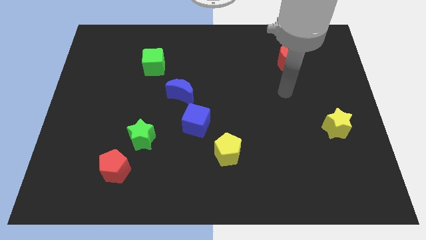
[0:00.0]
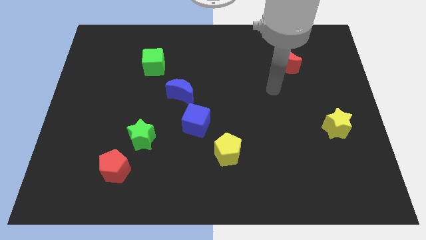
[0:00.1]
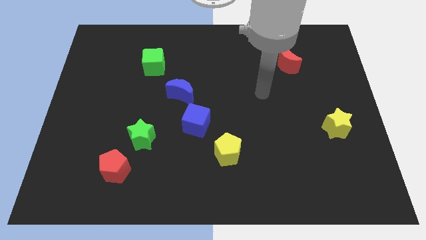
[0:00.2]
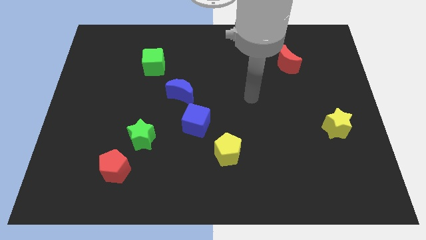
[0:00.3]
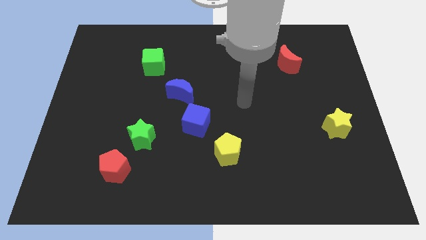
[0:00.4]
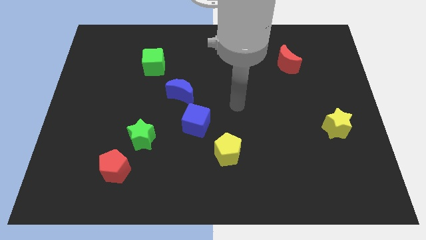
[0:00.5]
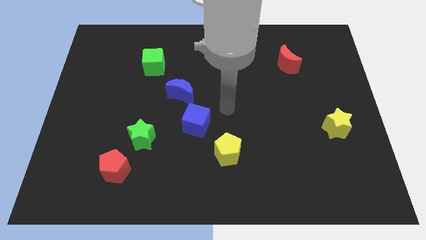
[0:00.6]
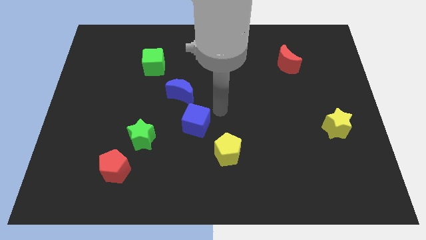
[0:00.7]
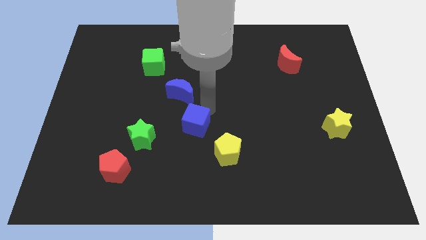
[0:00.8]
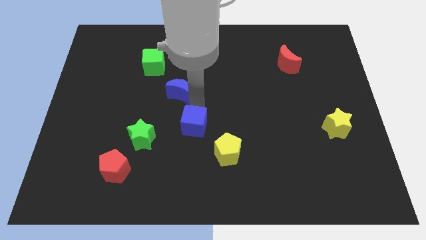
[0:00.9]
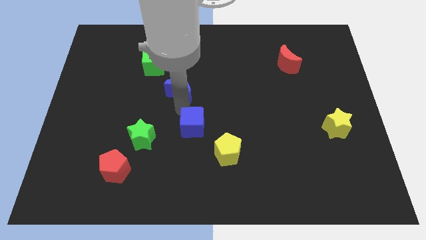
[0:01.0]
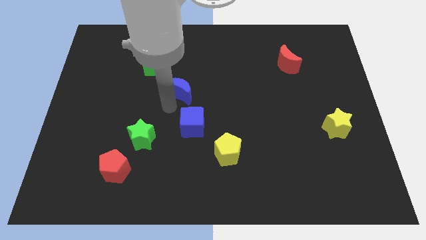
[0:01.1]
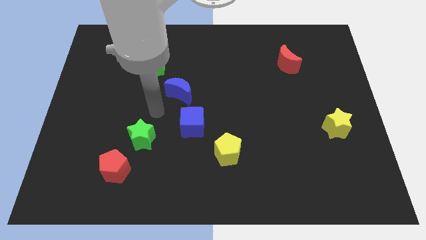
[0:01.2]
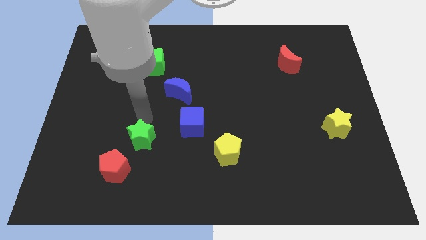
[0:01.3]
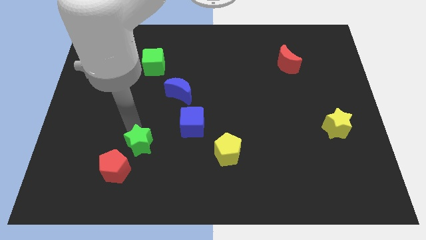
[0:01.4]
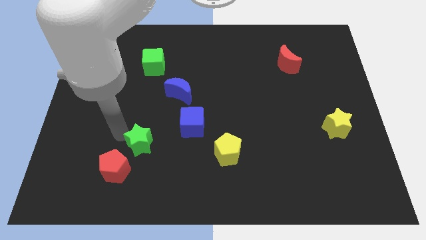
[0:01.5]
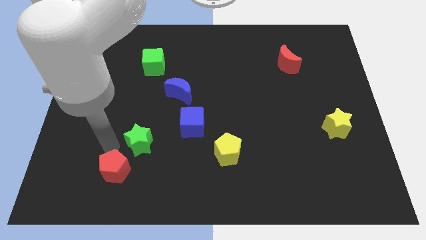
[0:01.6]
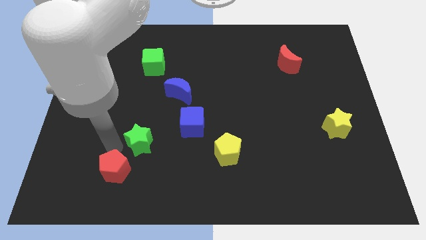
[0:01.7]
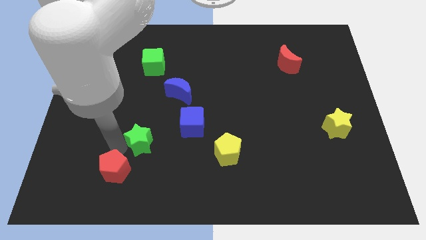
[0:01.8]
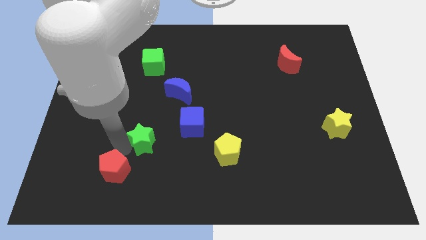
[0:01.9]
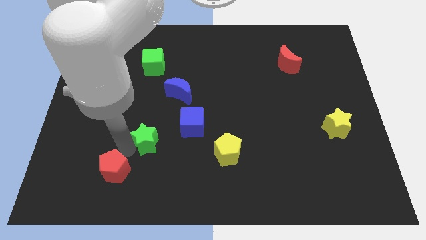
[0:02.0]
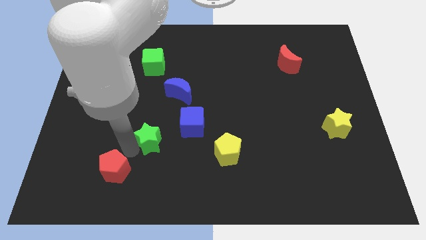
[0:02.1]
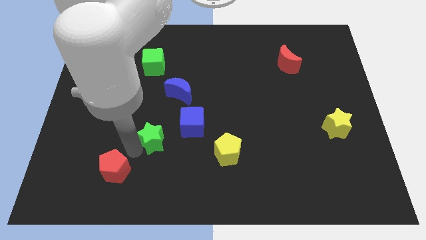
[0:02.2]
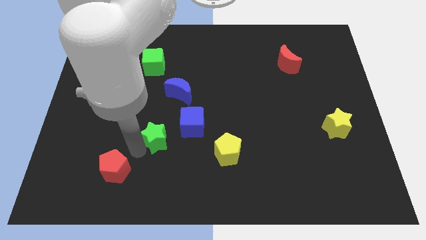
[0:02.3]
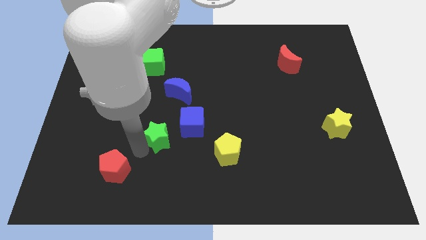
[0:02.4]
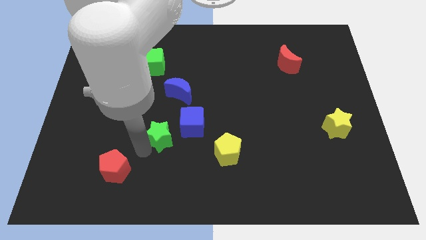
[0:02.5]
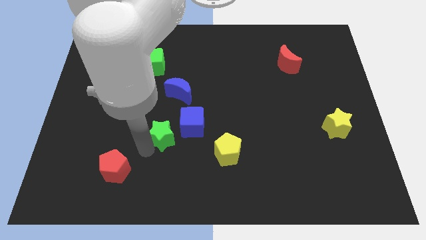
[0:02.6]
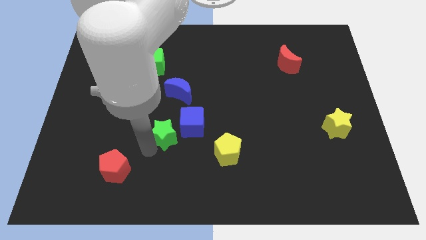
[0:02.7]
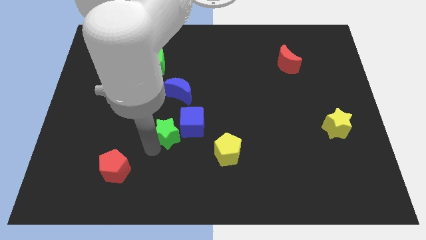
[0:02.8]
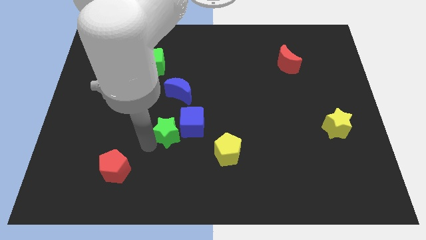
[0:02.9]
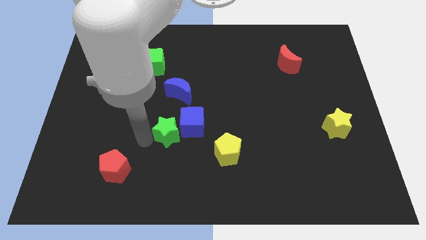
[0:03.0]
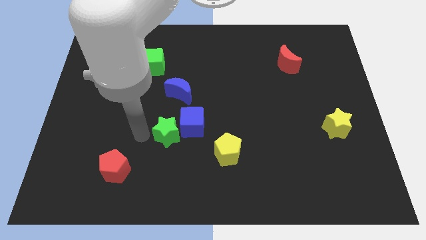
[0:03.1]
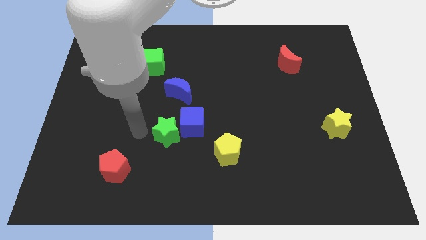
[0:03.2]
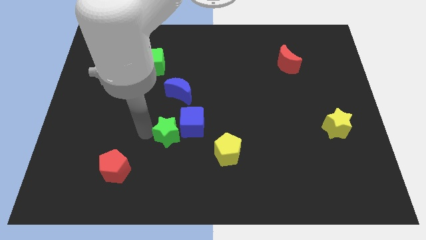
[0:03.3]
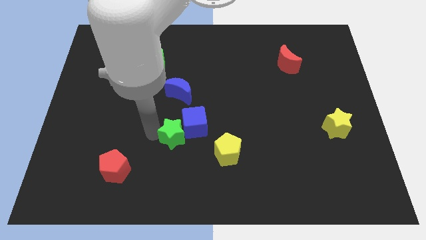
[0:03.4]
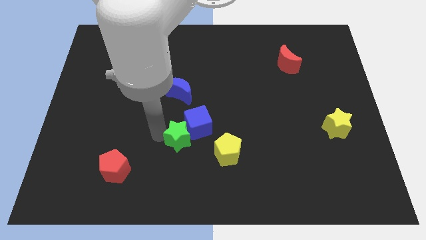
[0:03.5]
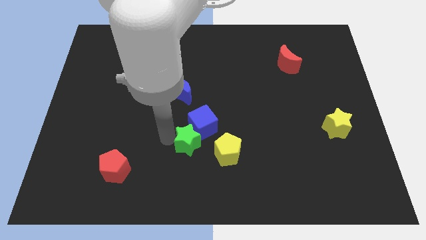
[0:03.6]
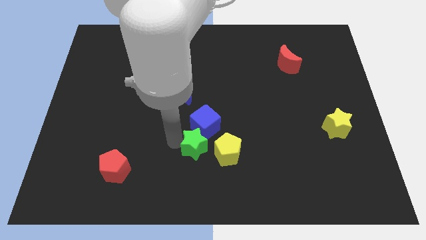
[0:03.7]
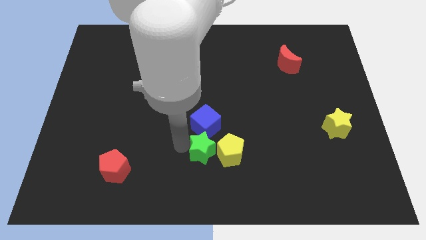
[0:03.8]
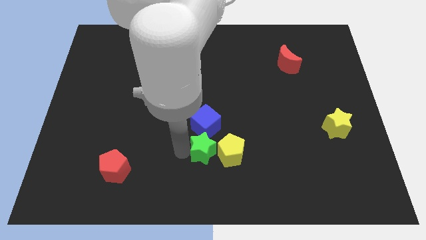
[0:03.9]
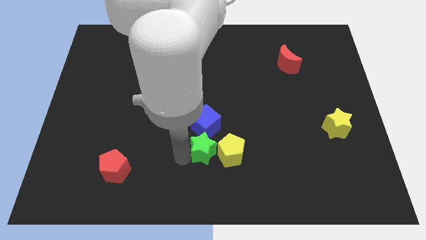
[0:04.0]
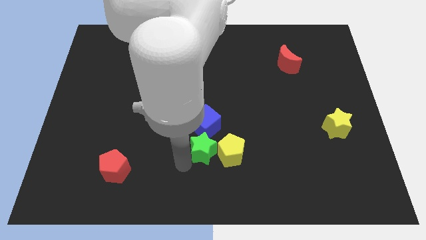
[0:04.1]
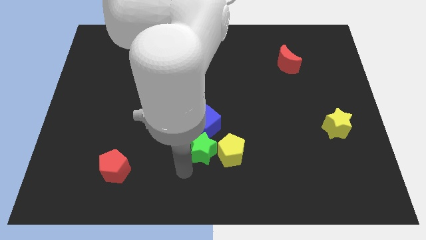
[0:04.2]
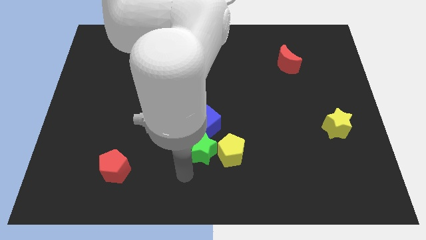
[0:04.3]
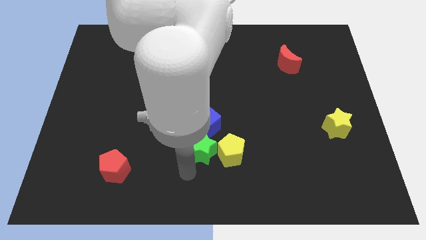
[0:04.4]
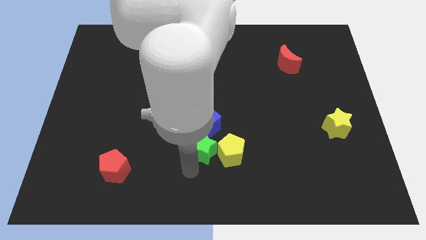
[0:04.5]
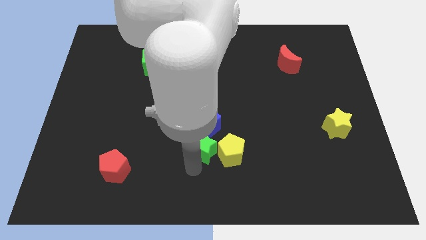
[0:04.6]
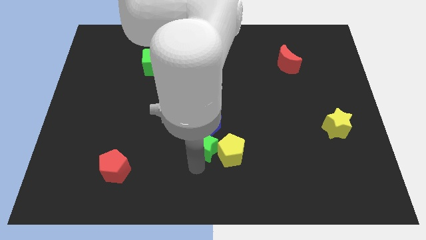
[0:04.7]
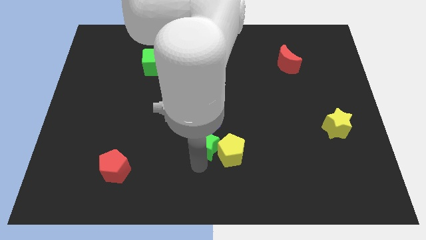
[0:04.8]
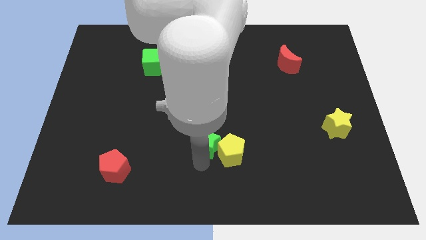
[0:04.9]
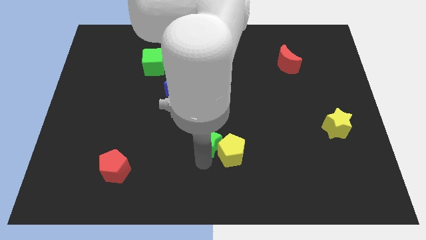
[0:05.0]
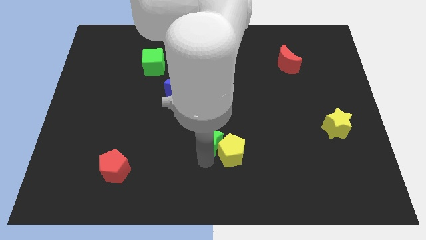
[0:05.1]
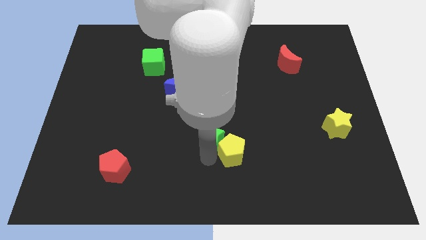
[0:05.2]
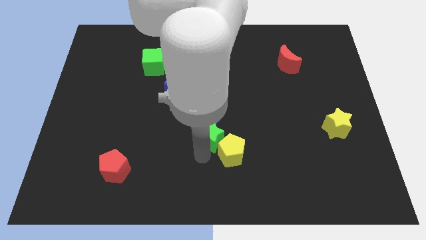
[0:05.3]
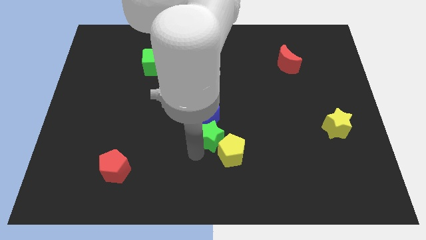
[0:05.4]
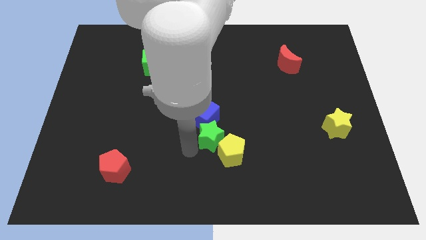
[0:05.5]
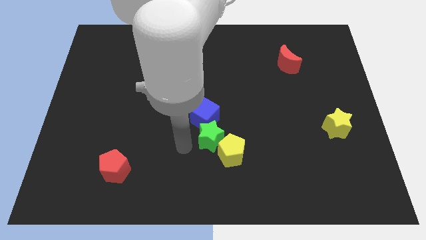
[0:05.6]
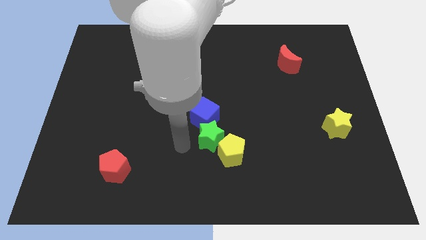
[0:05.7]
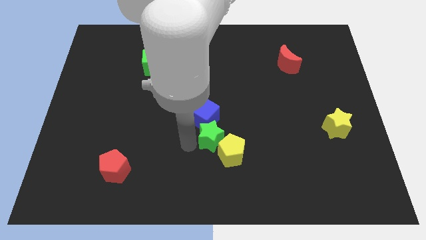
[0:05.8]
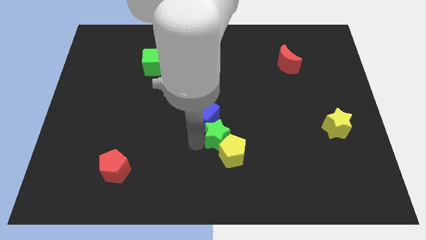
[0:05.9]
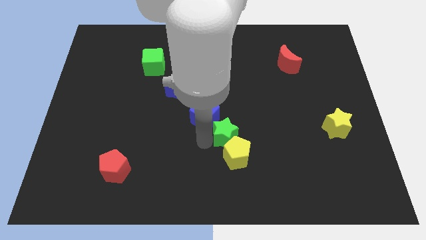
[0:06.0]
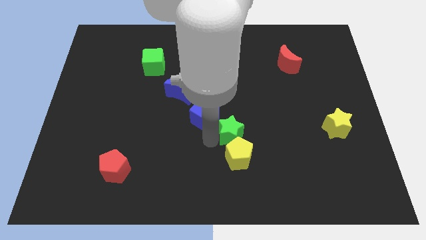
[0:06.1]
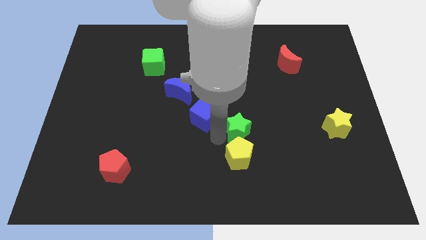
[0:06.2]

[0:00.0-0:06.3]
slide the green star right

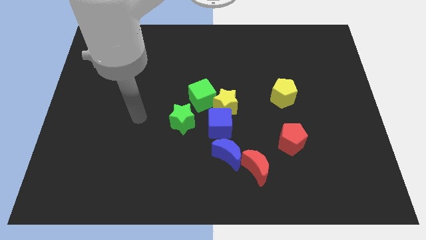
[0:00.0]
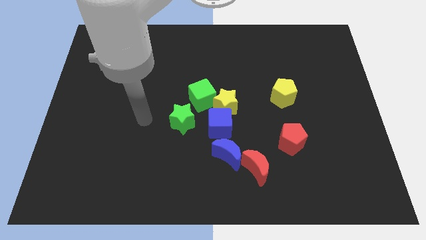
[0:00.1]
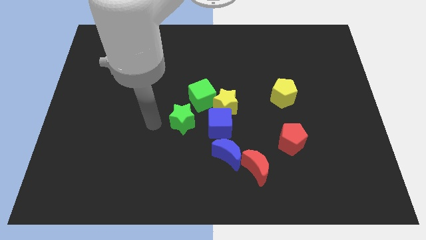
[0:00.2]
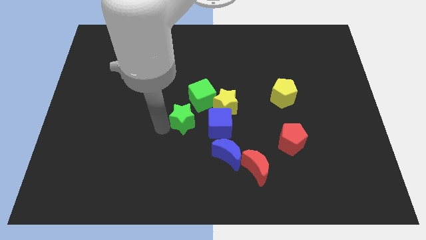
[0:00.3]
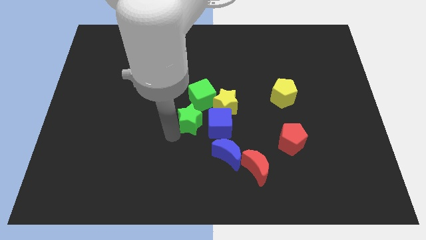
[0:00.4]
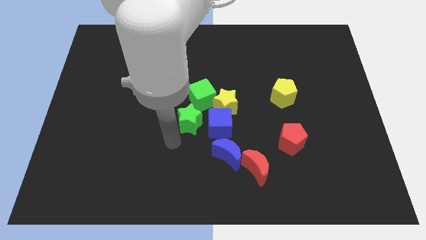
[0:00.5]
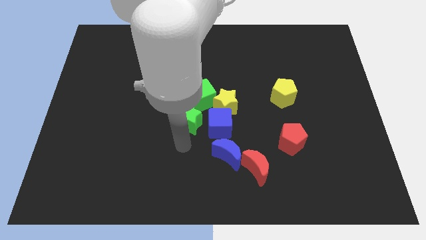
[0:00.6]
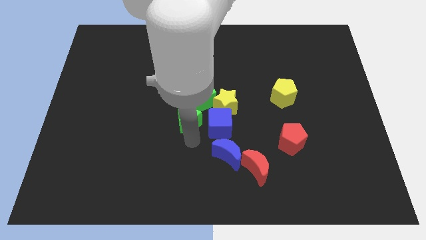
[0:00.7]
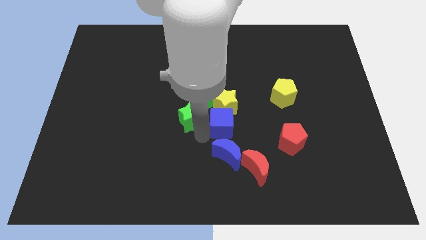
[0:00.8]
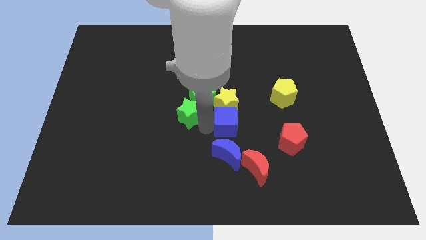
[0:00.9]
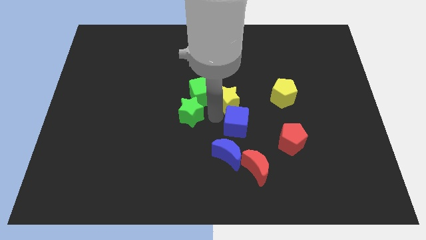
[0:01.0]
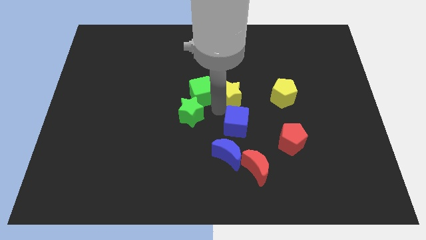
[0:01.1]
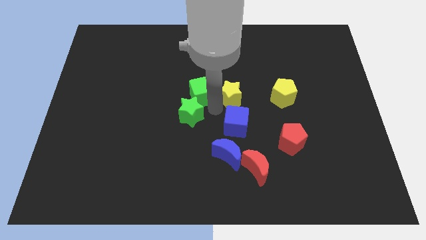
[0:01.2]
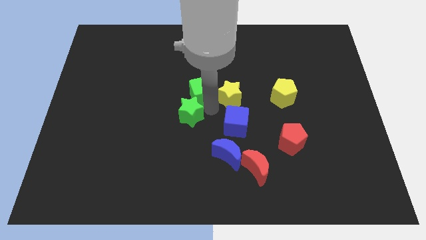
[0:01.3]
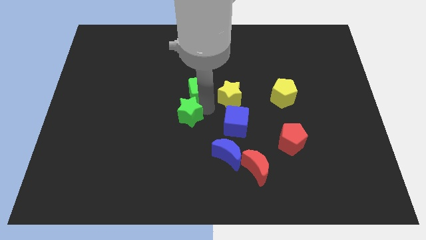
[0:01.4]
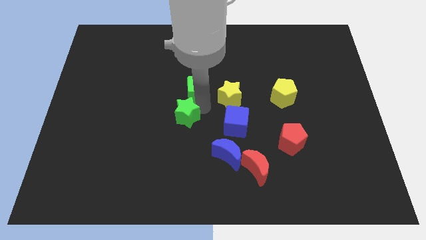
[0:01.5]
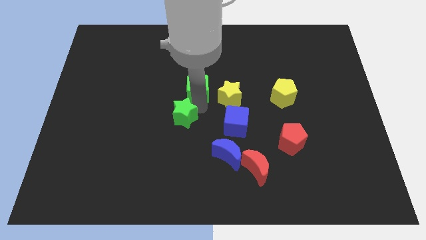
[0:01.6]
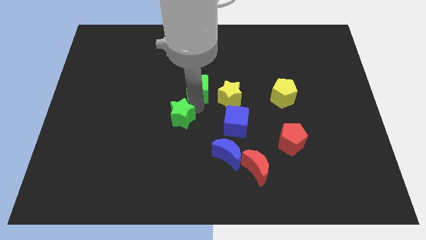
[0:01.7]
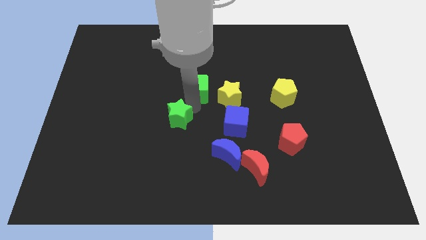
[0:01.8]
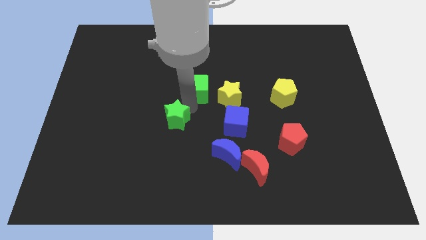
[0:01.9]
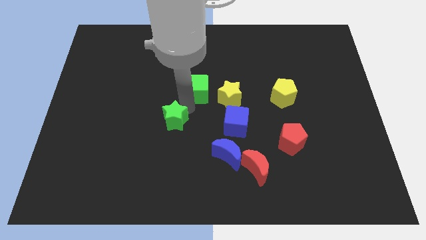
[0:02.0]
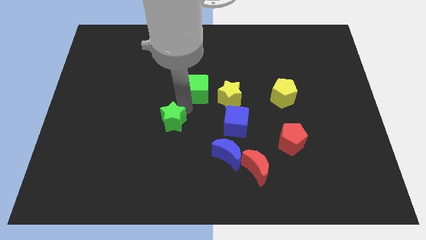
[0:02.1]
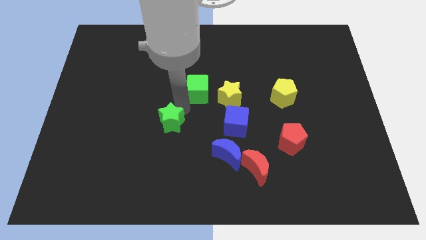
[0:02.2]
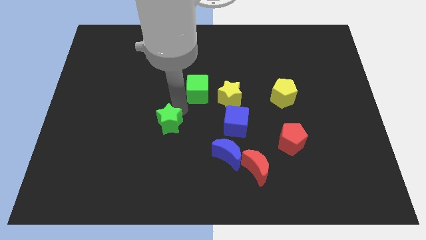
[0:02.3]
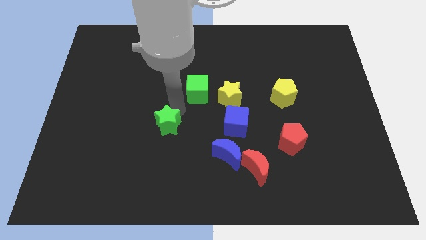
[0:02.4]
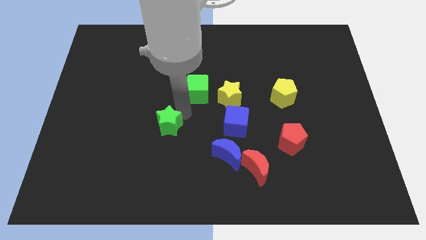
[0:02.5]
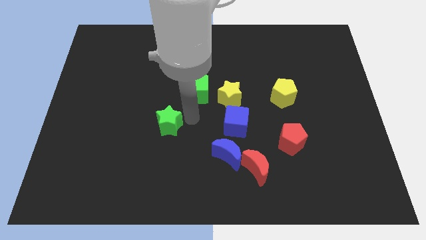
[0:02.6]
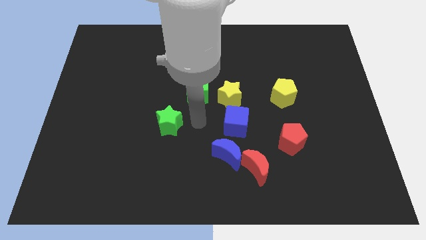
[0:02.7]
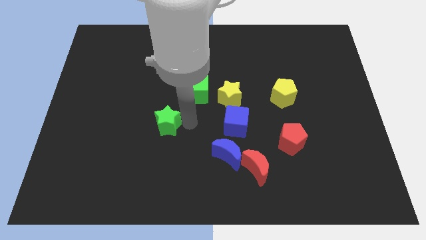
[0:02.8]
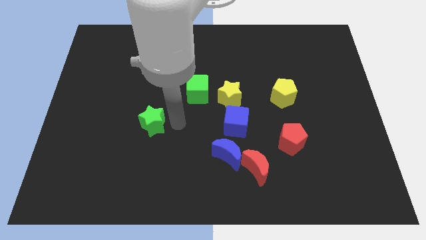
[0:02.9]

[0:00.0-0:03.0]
move the green star a bit to the left
